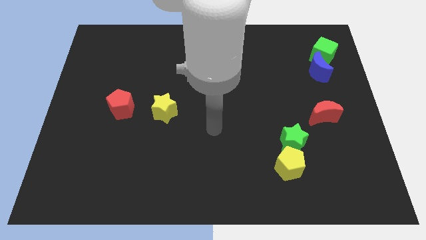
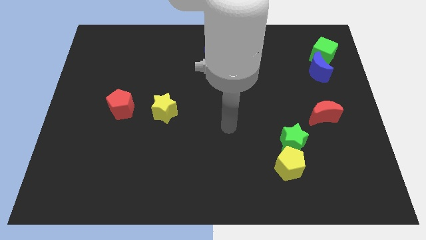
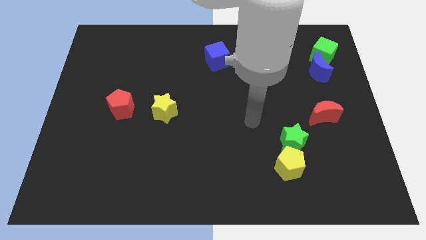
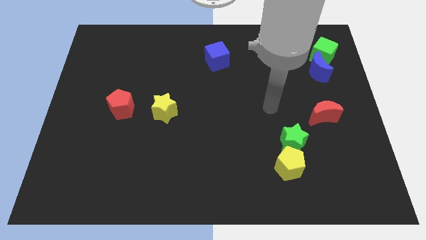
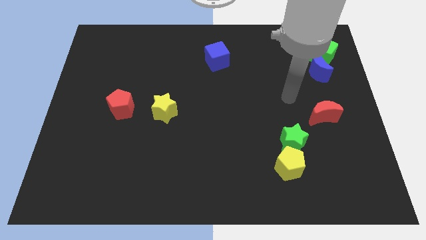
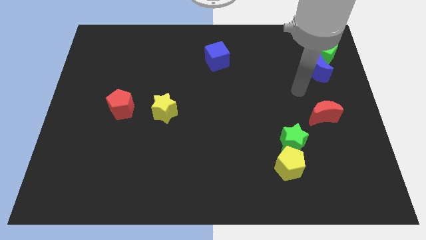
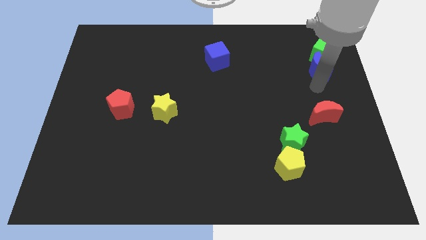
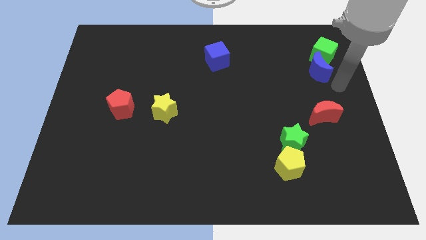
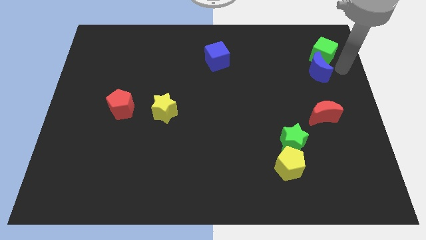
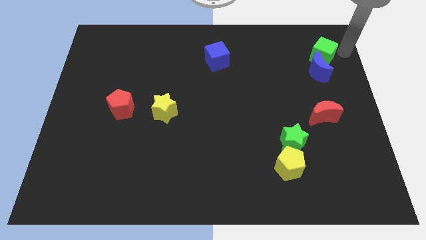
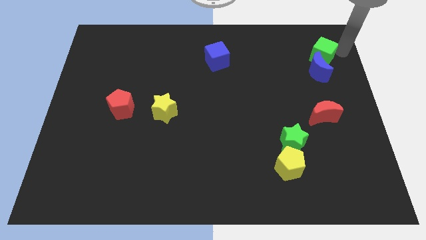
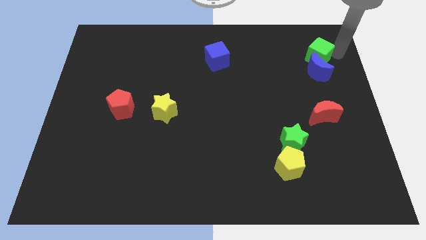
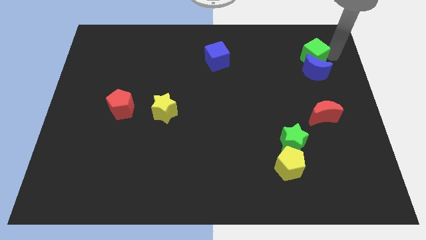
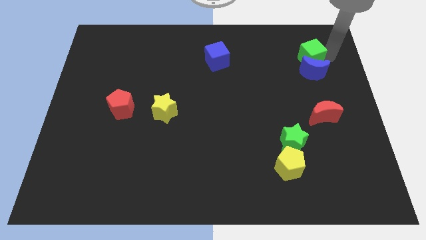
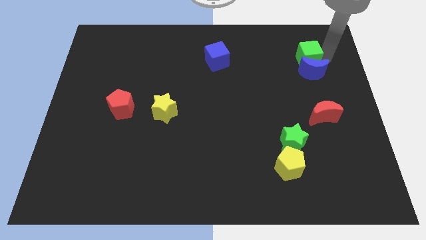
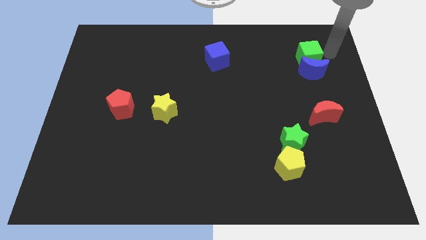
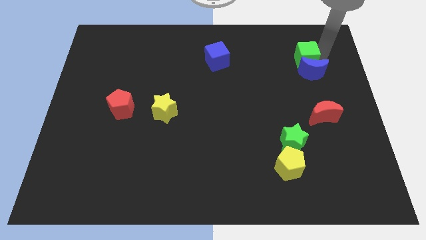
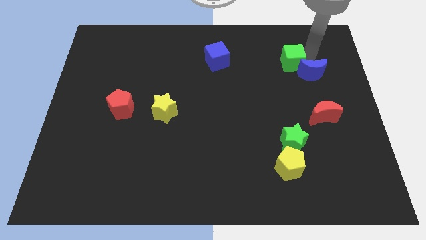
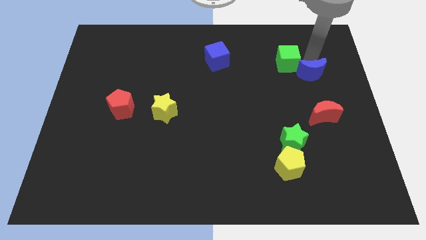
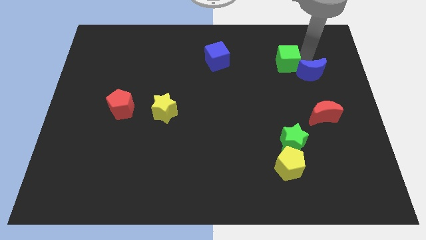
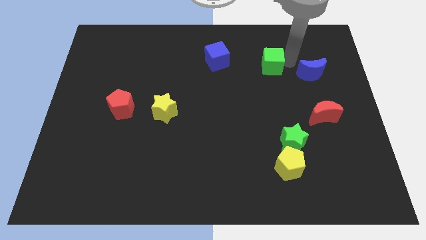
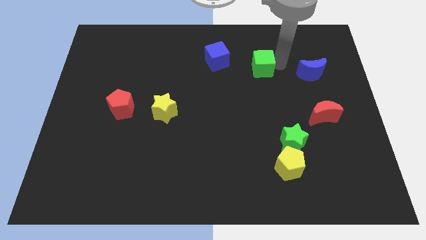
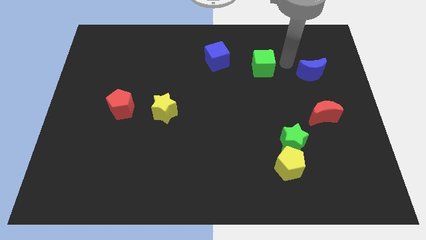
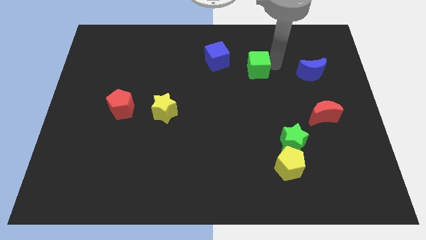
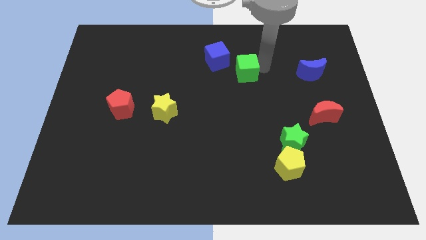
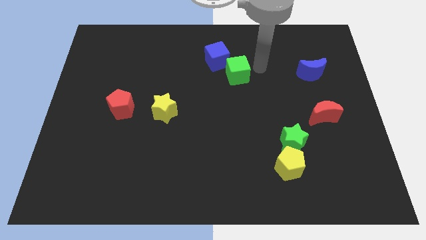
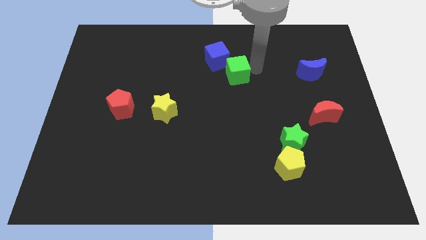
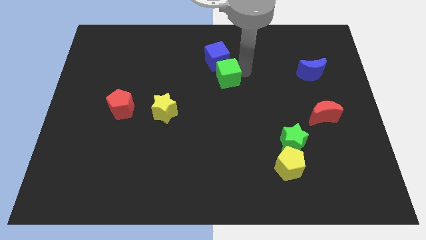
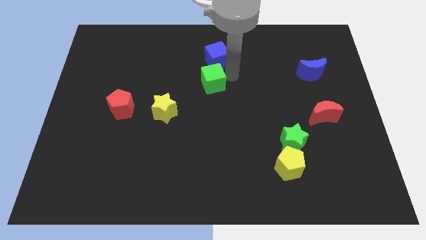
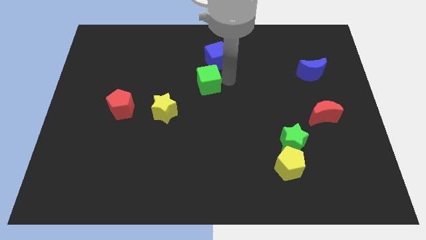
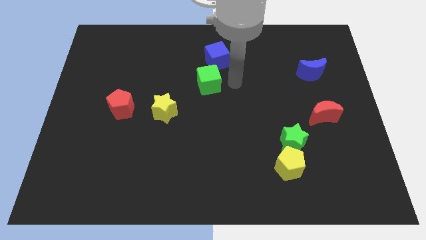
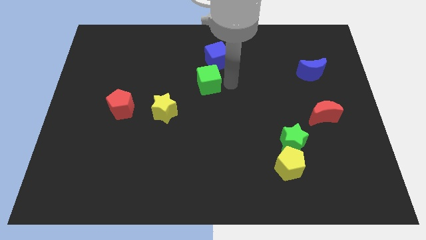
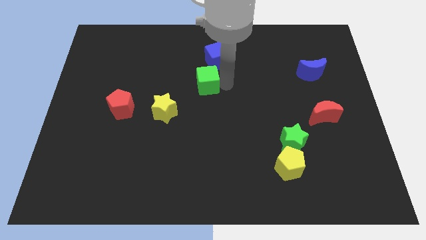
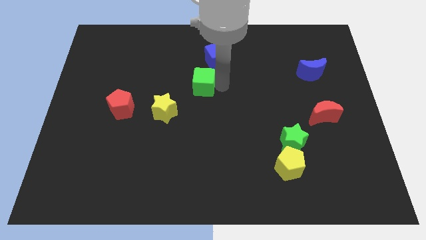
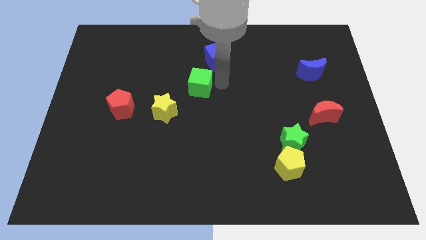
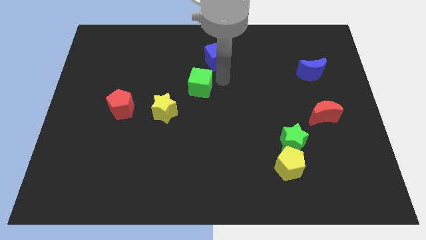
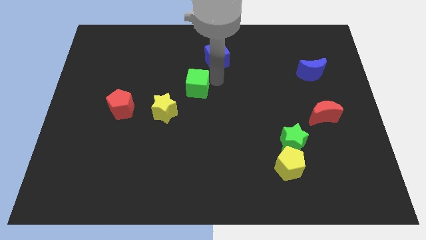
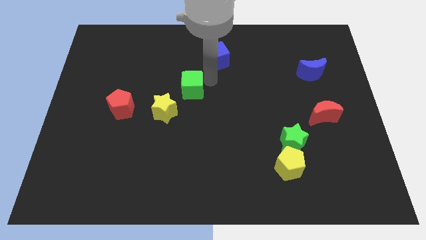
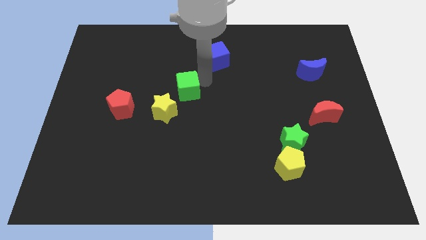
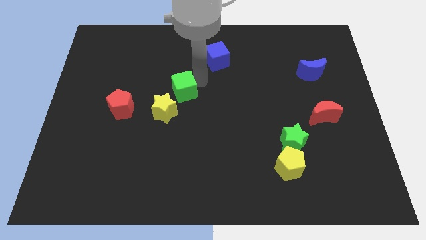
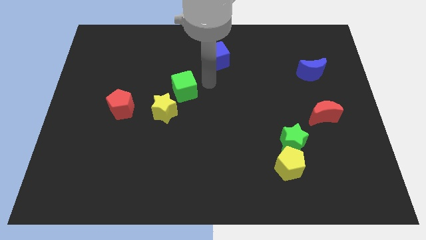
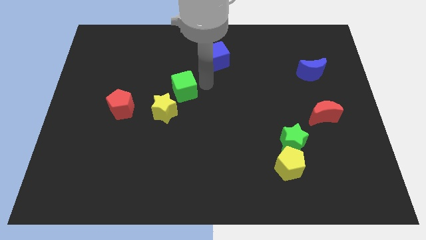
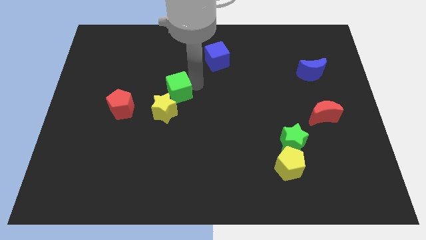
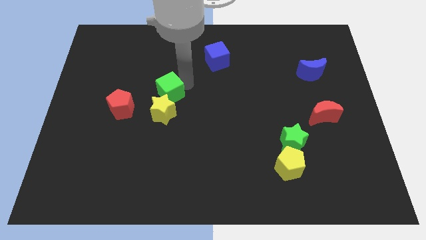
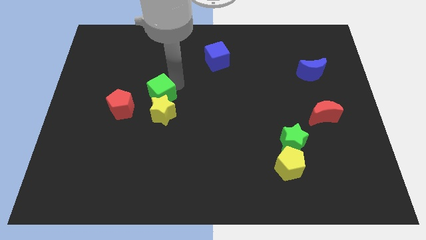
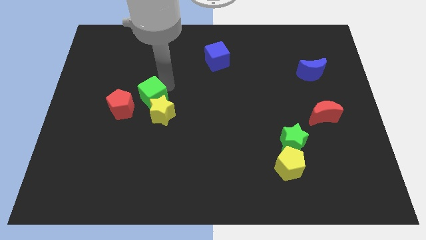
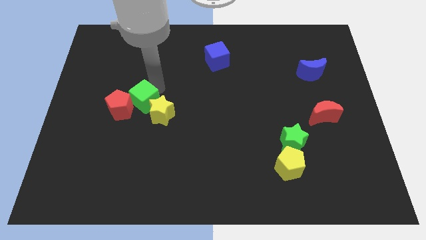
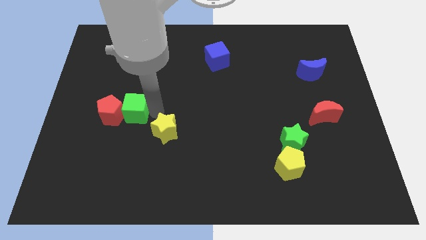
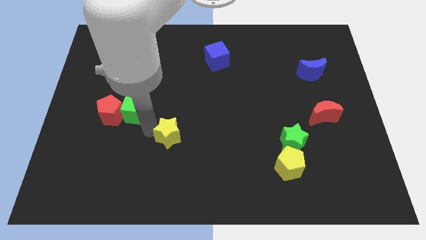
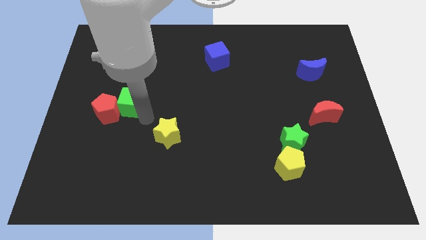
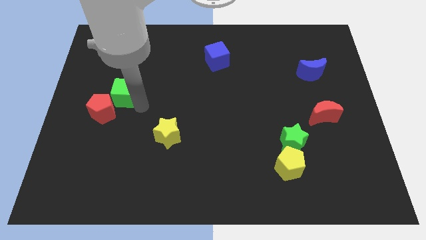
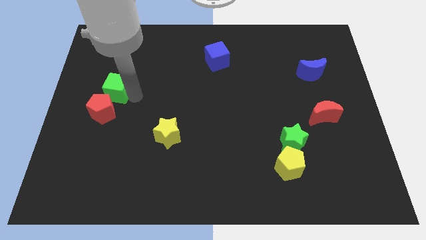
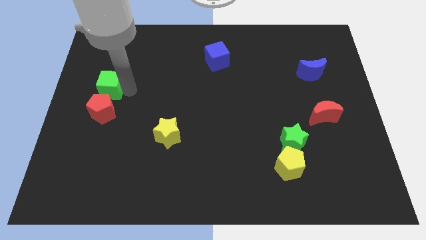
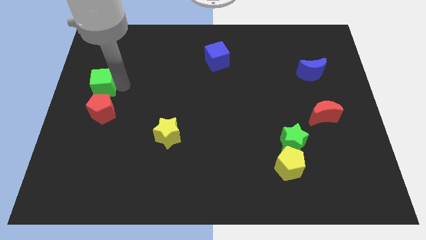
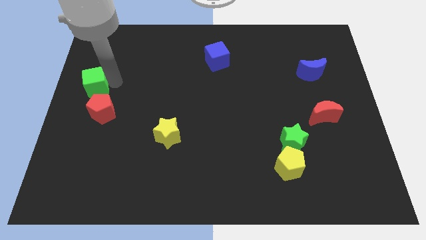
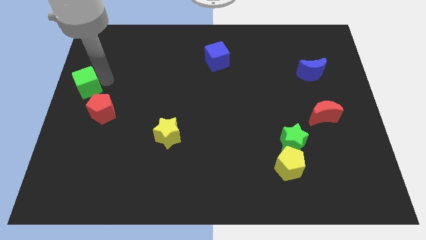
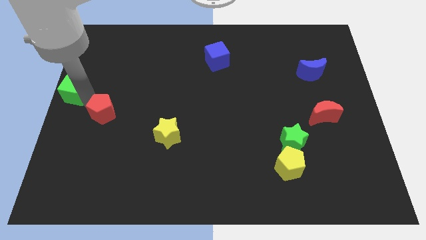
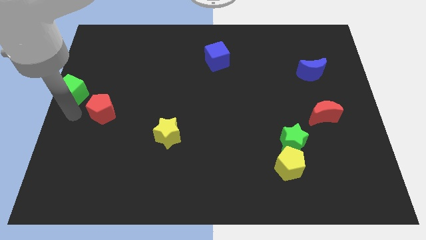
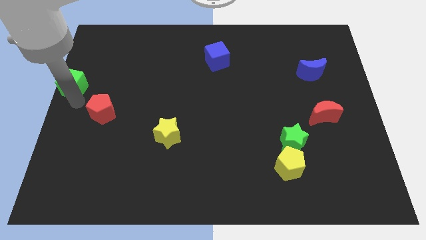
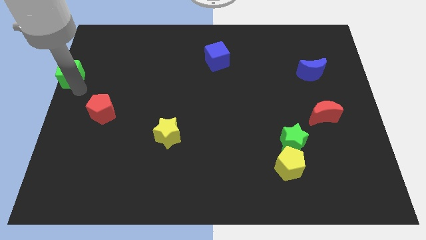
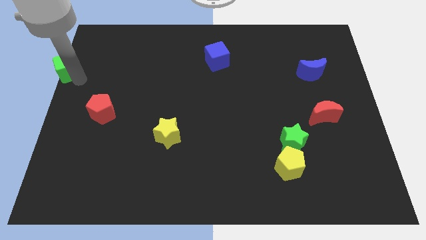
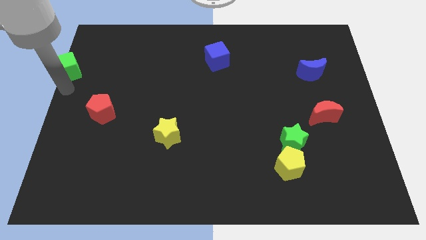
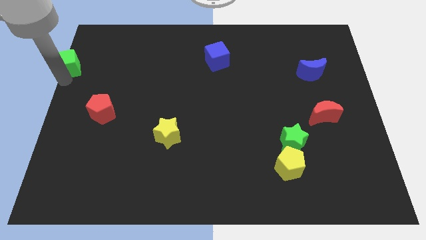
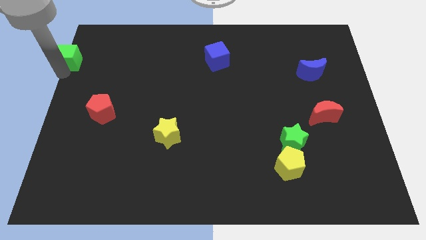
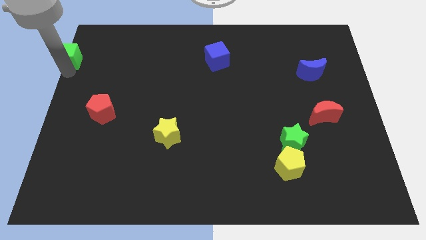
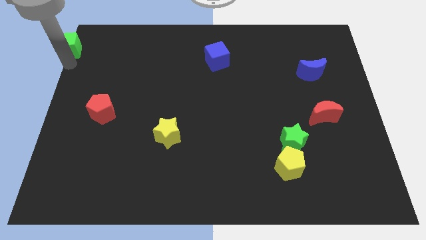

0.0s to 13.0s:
push the green cube to the top left corner
